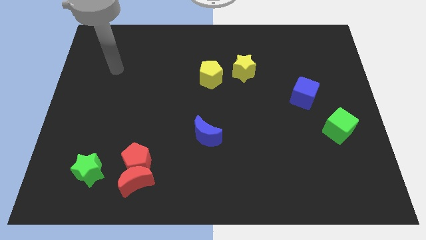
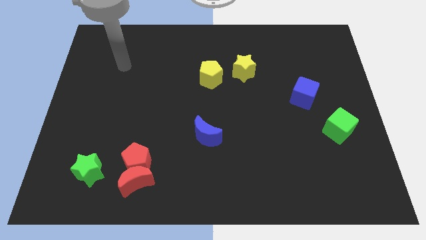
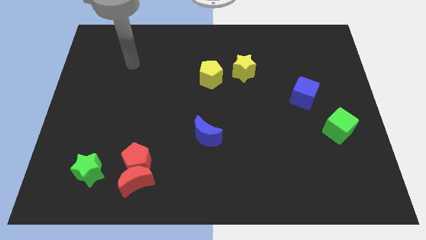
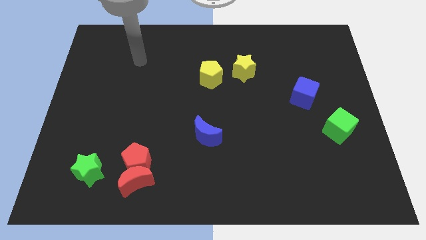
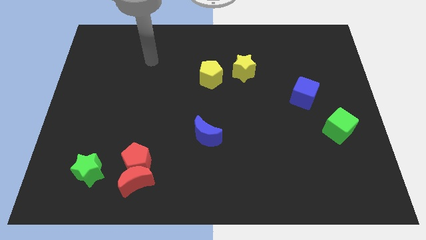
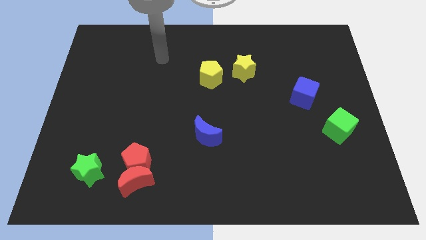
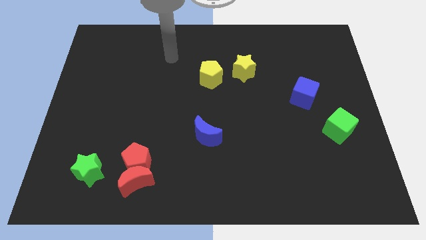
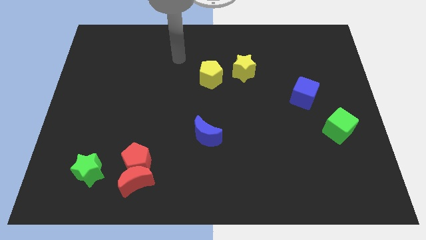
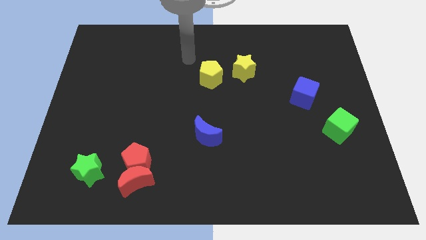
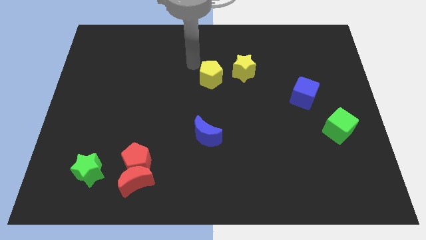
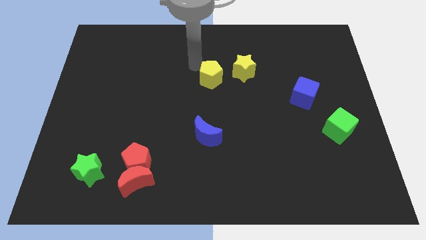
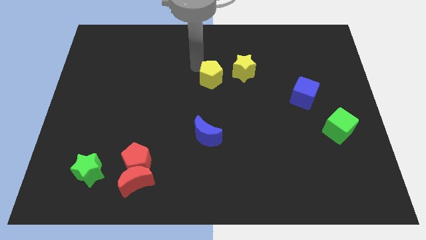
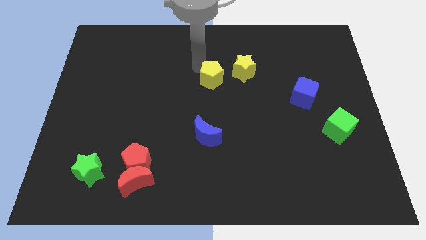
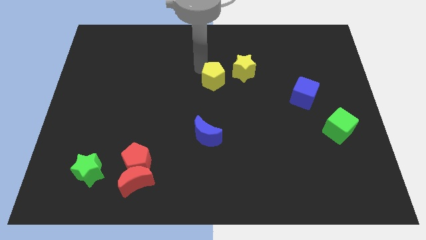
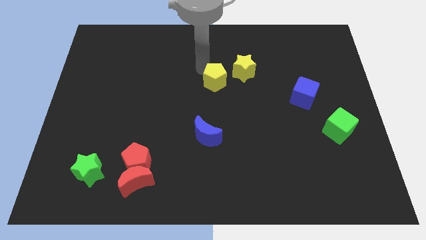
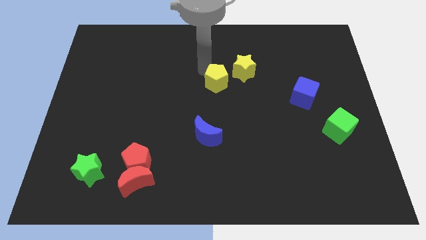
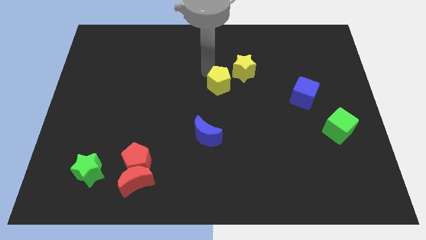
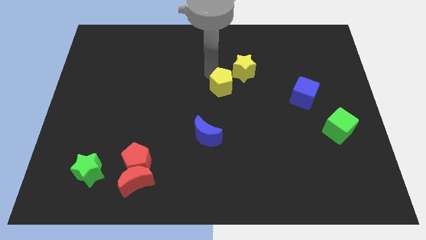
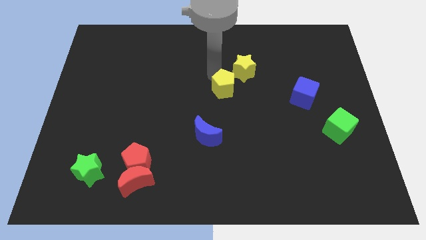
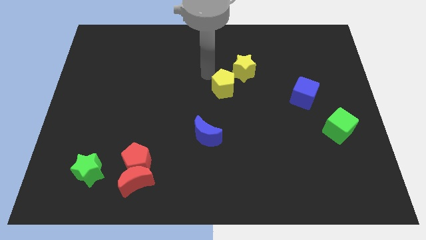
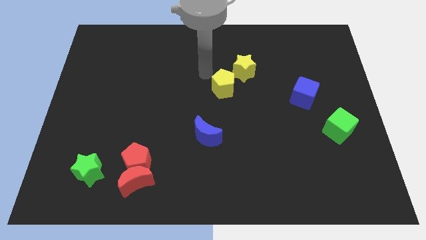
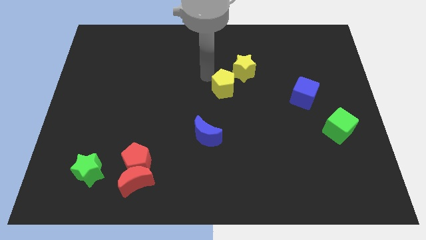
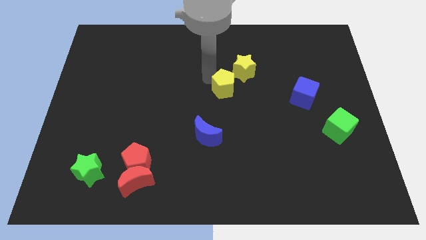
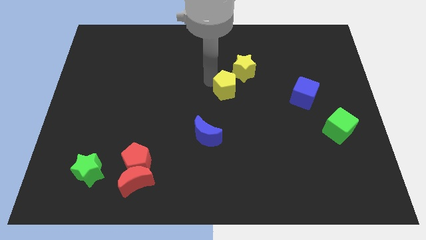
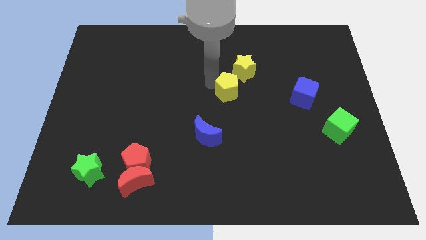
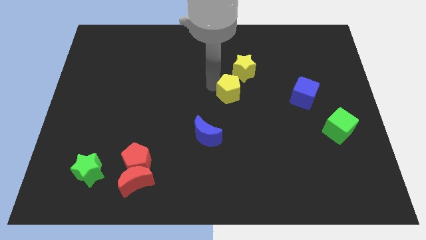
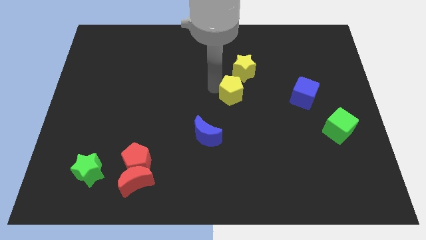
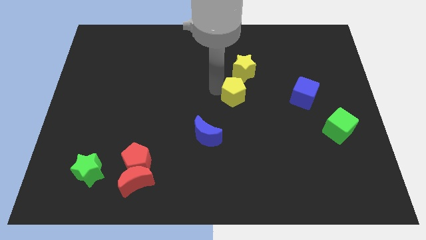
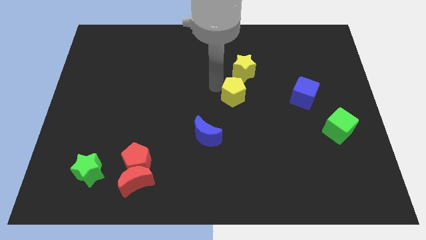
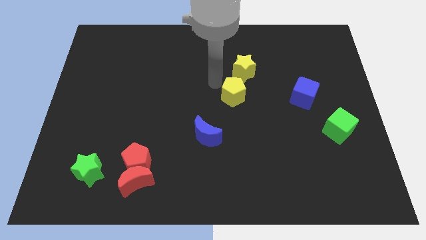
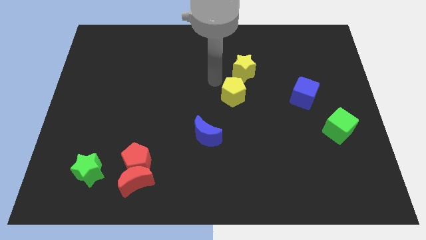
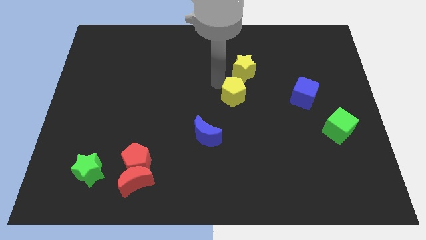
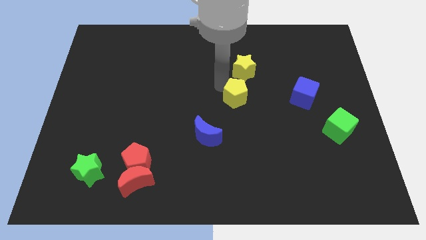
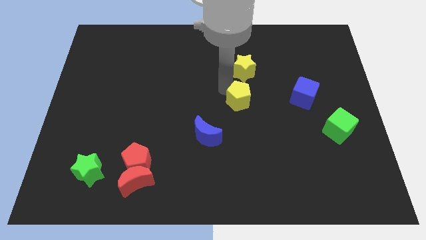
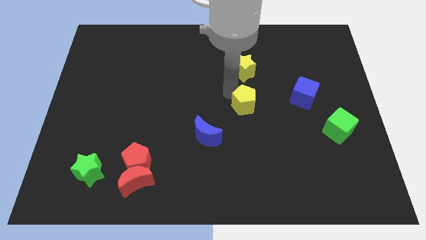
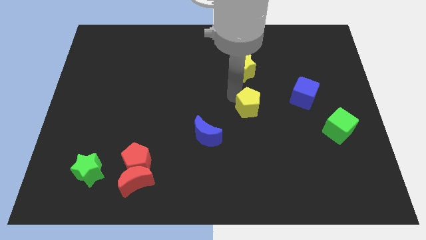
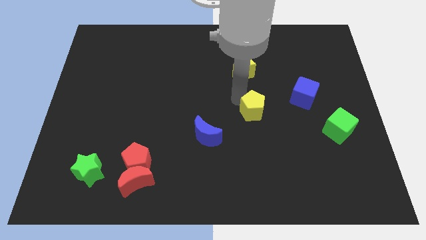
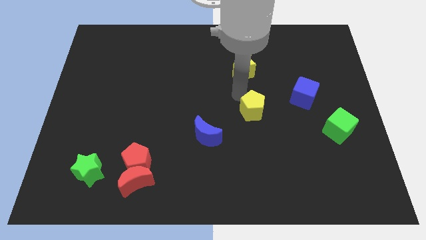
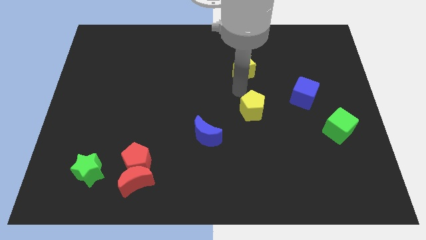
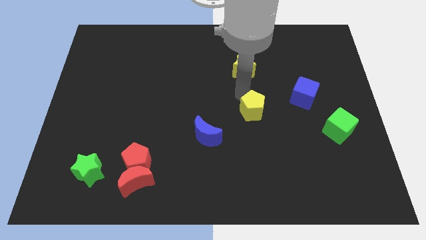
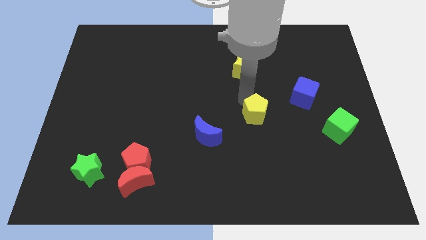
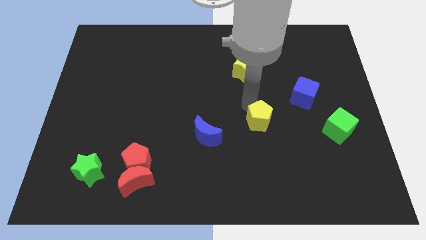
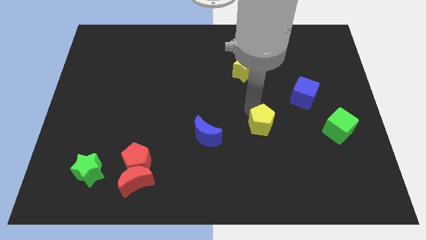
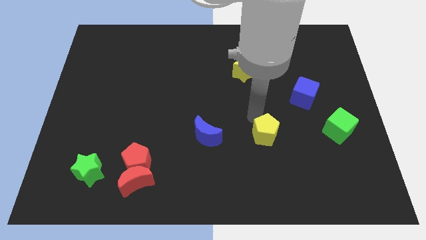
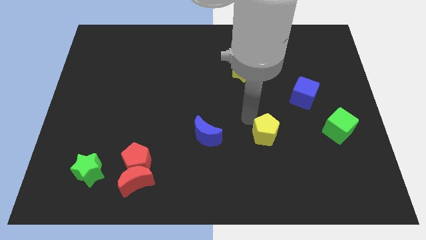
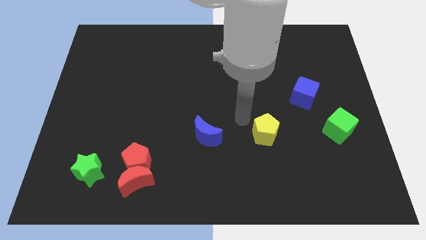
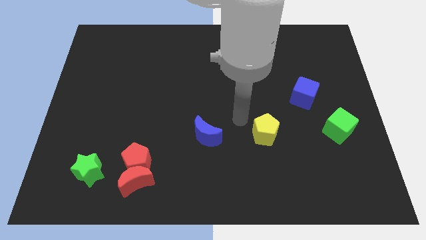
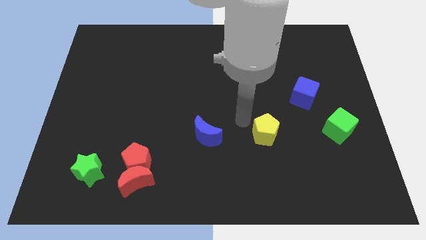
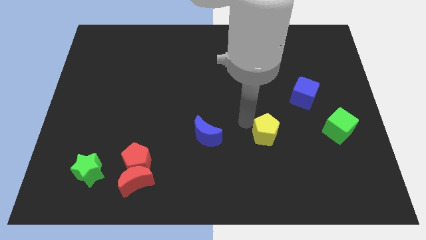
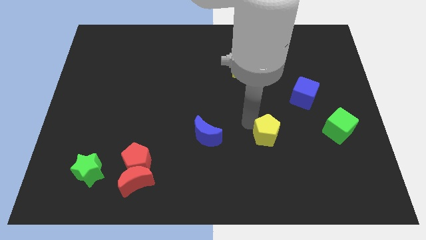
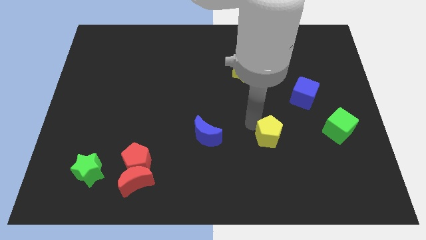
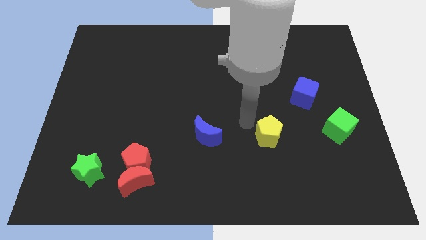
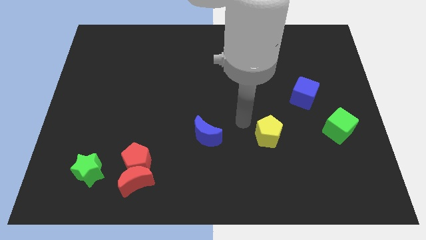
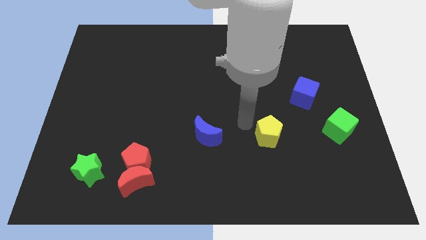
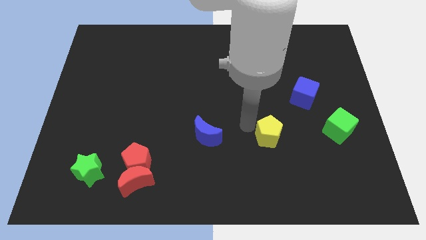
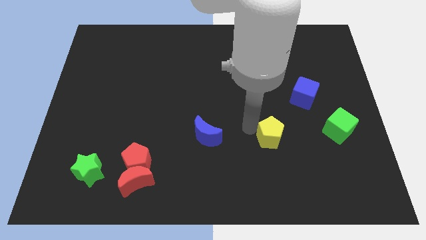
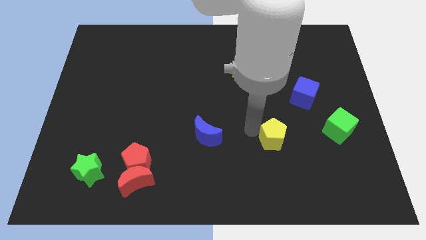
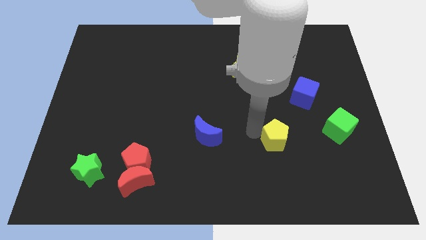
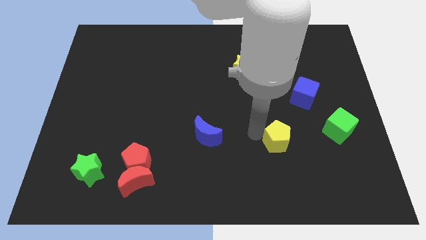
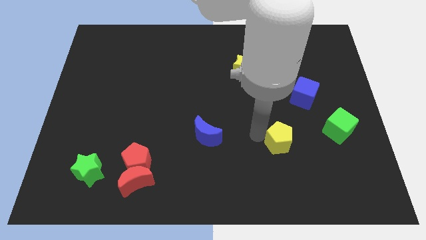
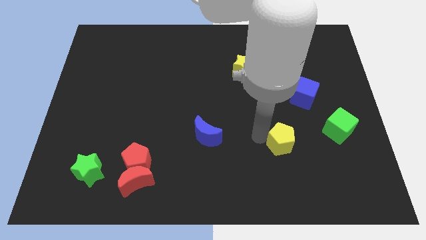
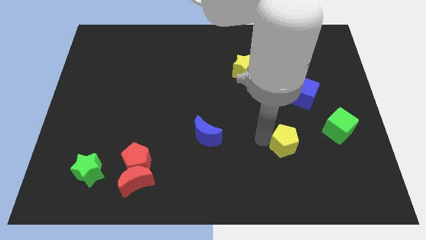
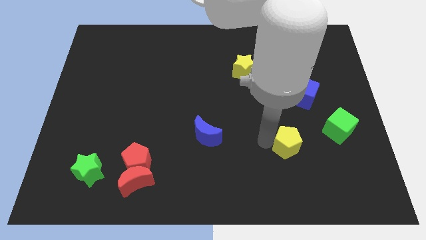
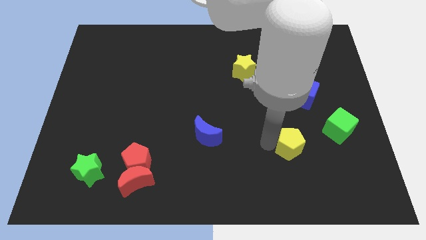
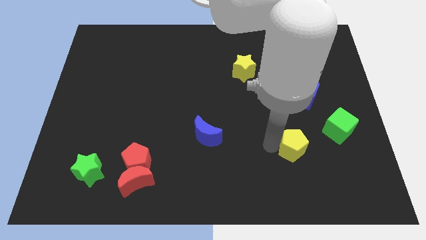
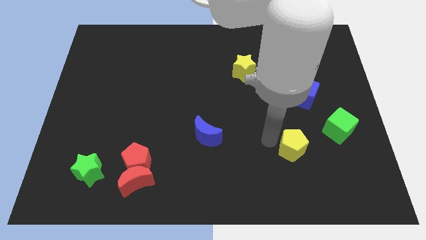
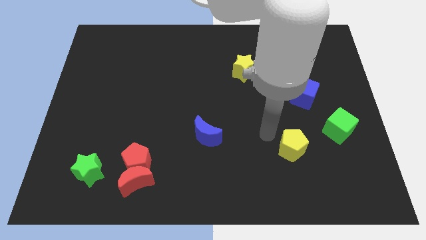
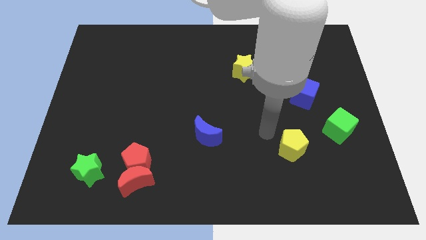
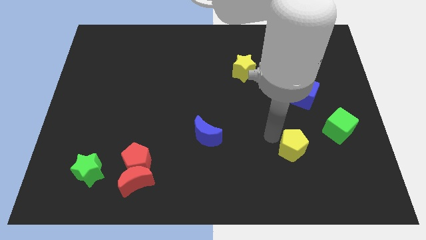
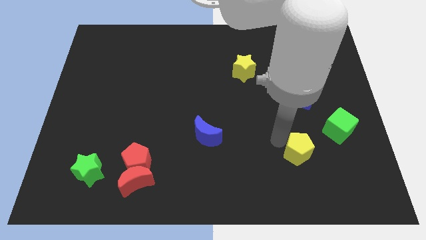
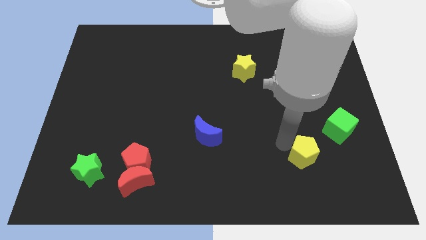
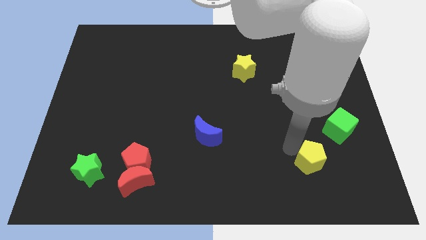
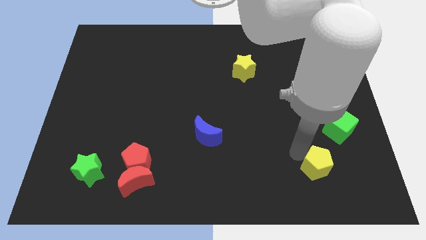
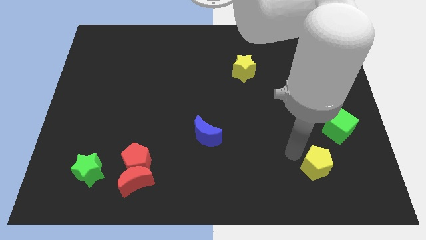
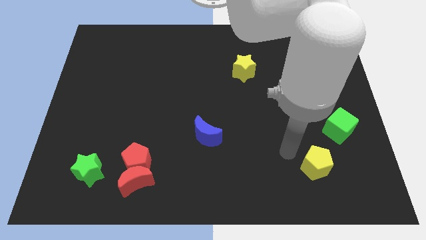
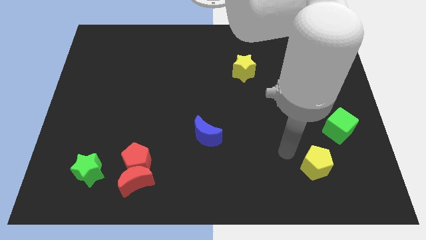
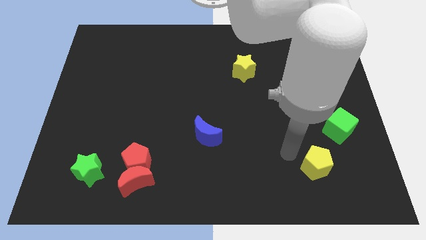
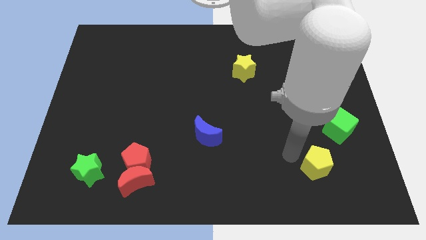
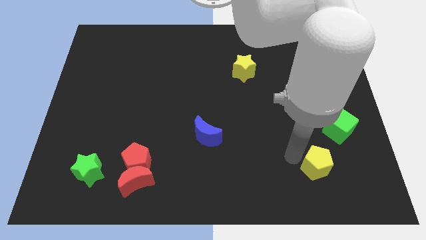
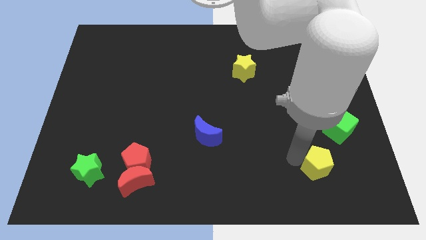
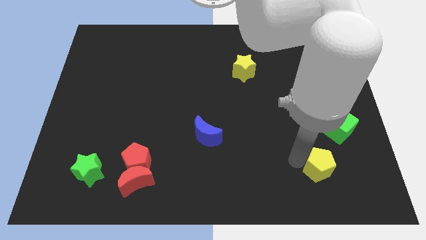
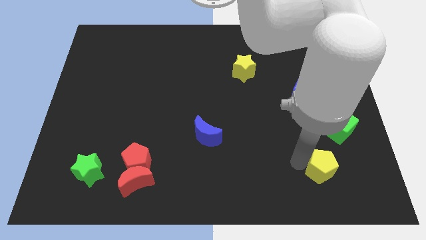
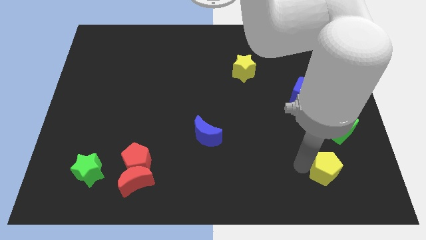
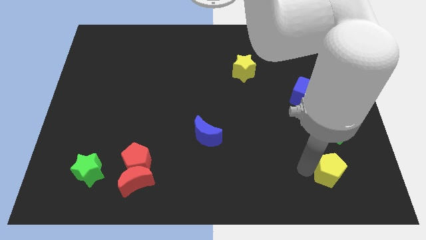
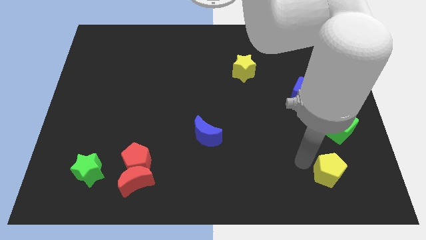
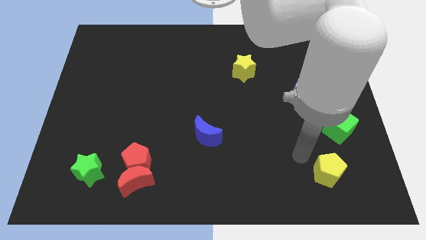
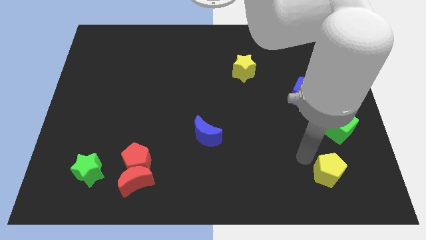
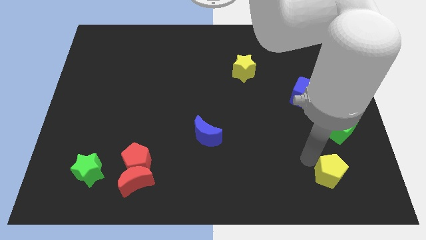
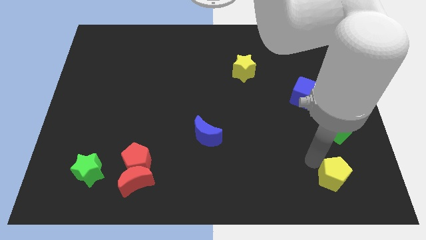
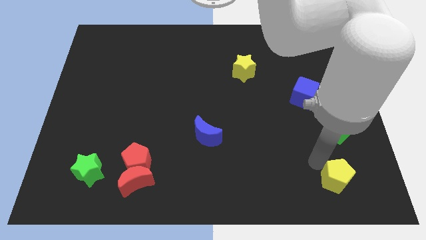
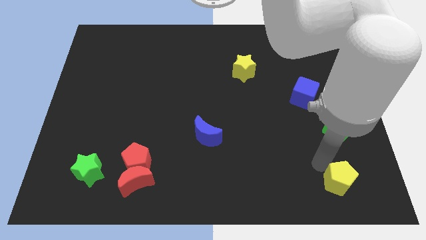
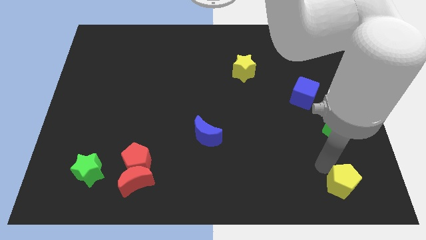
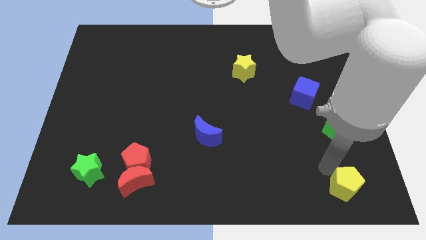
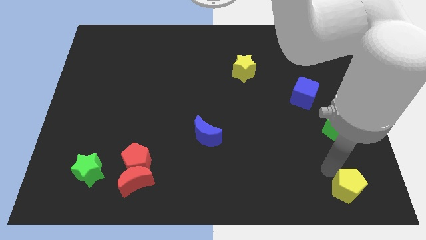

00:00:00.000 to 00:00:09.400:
slide the yellow pentagon to the lower right corner
